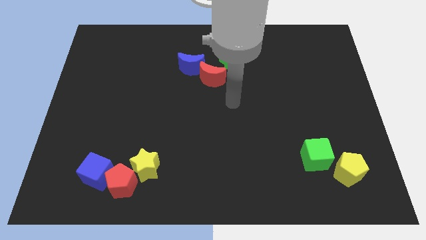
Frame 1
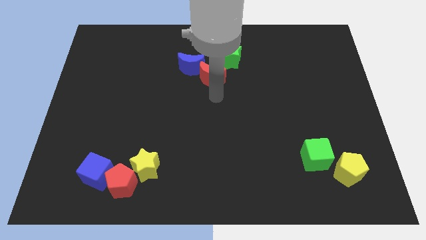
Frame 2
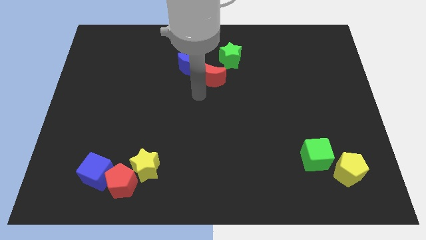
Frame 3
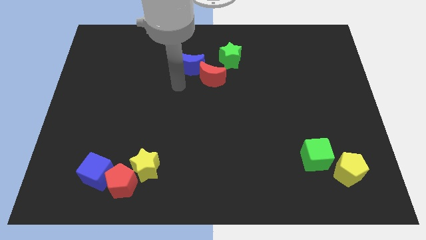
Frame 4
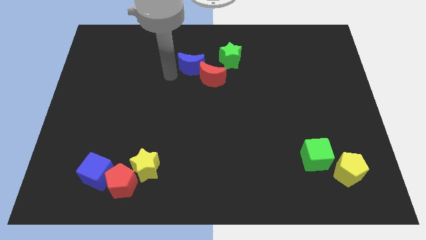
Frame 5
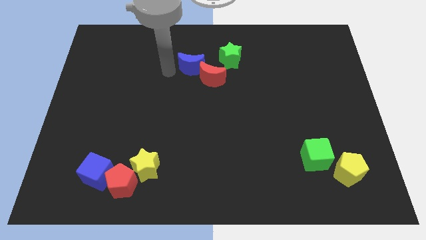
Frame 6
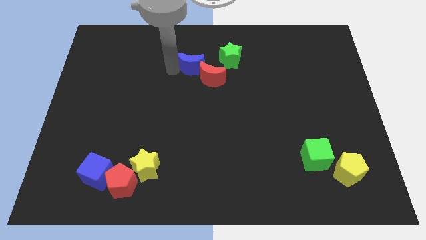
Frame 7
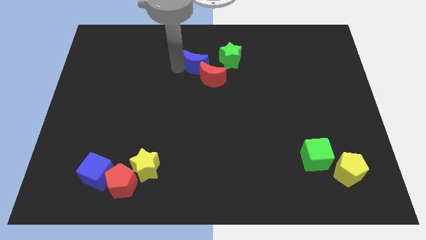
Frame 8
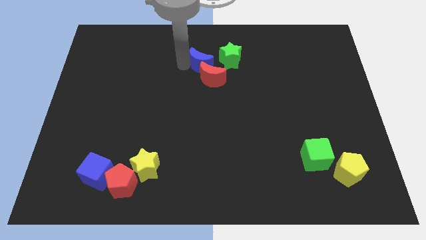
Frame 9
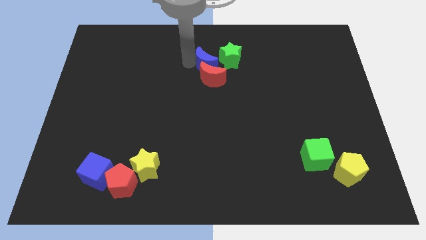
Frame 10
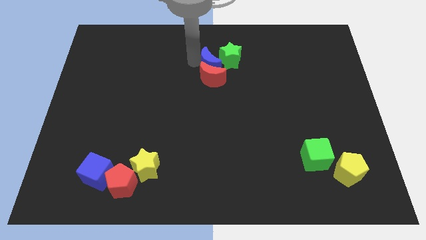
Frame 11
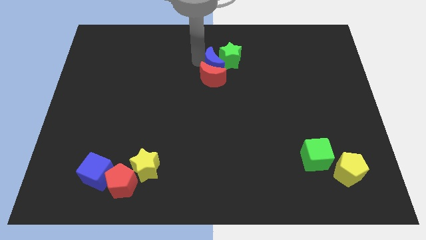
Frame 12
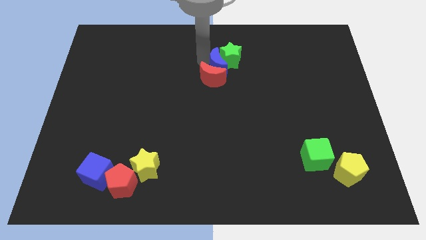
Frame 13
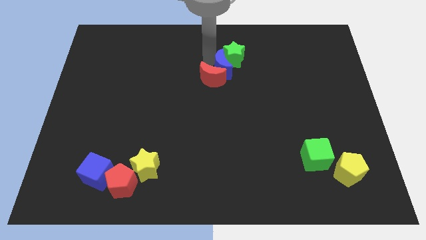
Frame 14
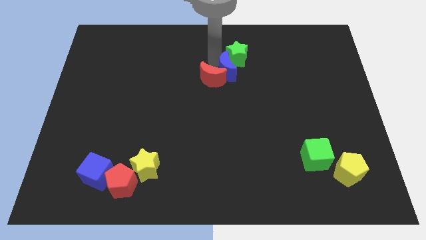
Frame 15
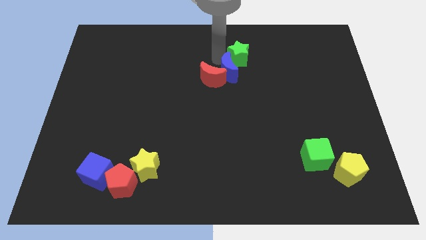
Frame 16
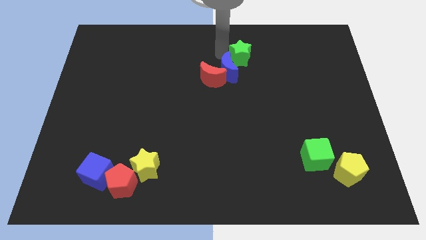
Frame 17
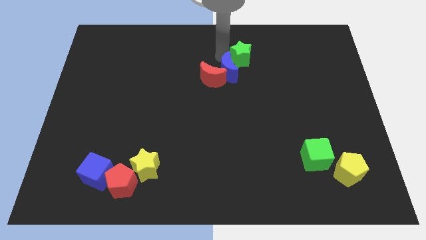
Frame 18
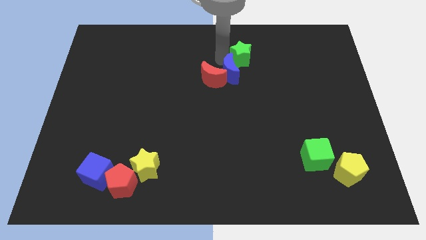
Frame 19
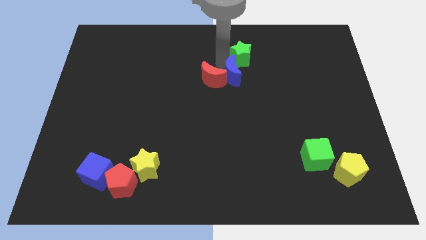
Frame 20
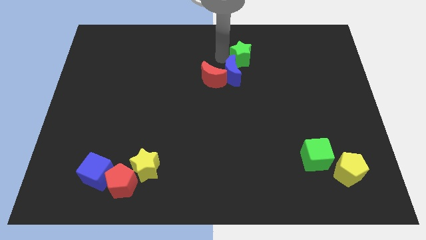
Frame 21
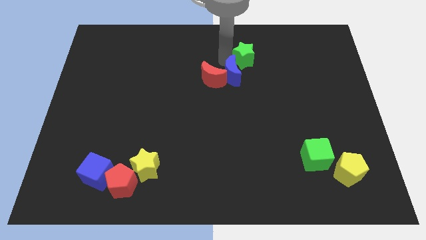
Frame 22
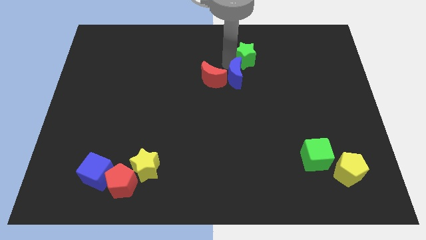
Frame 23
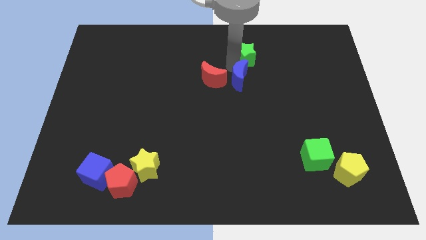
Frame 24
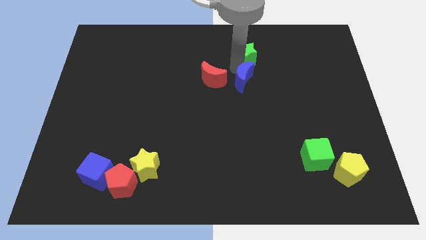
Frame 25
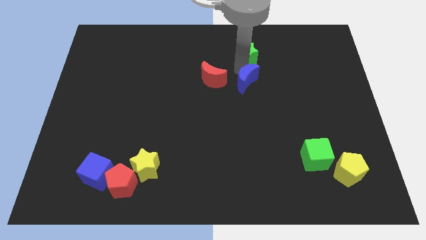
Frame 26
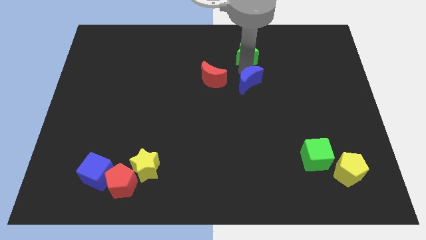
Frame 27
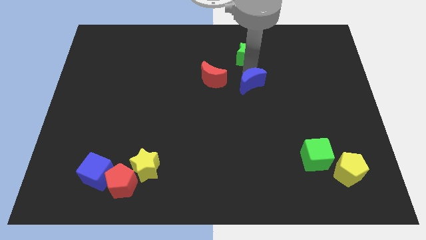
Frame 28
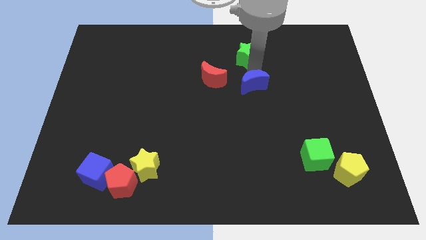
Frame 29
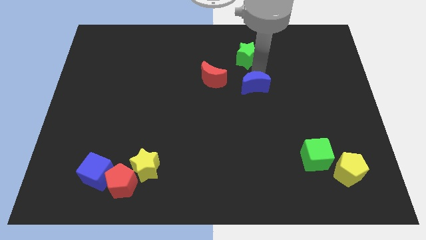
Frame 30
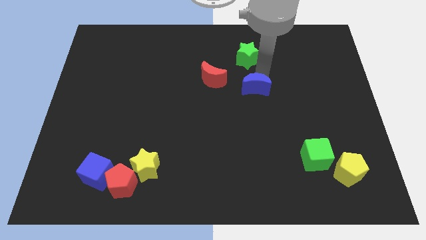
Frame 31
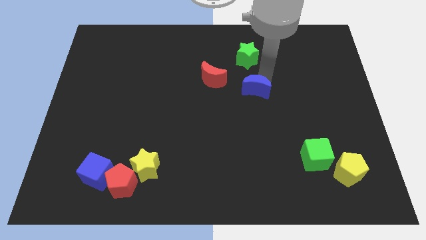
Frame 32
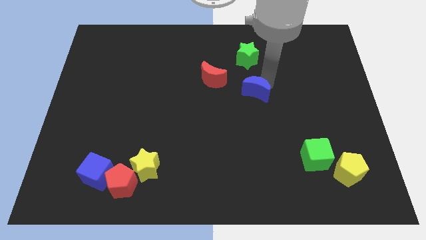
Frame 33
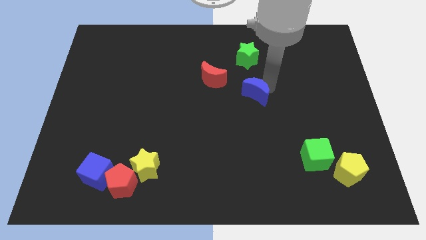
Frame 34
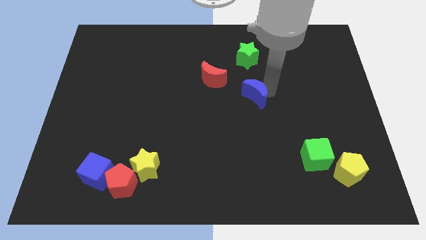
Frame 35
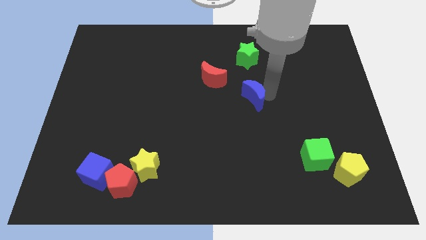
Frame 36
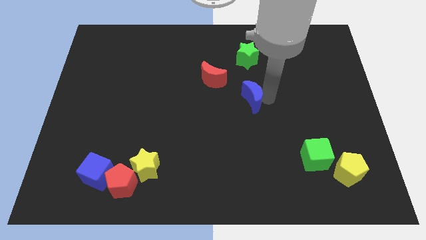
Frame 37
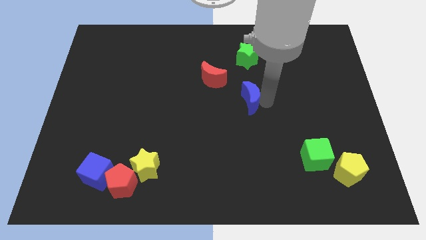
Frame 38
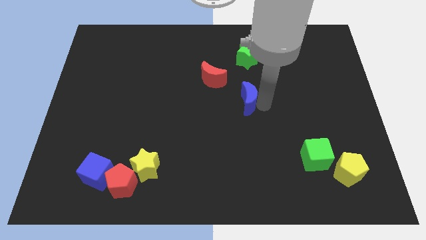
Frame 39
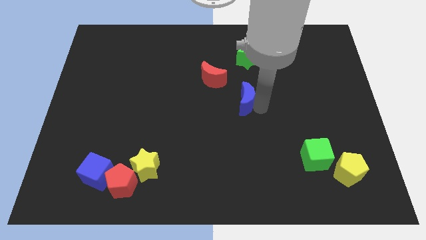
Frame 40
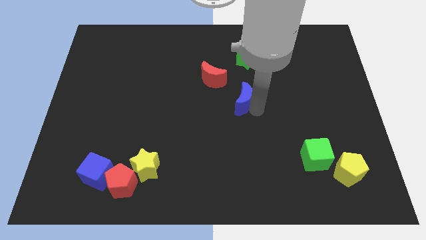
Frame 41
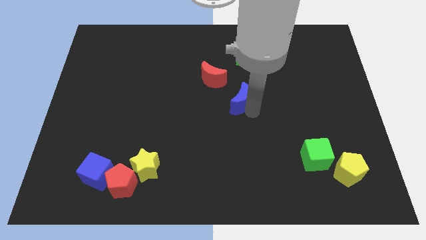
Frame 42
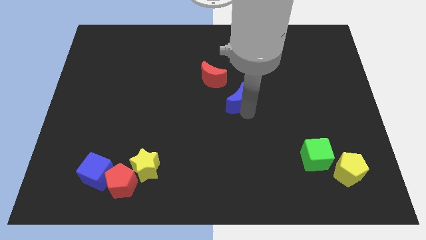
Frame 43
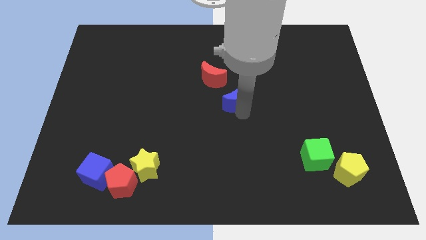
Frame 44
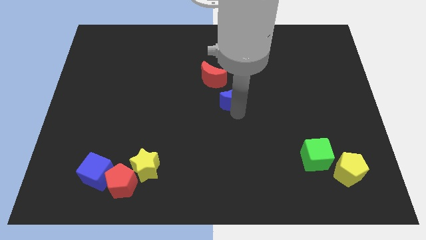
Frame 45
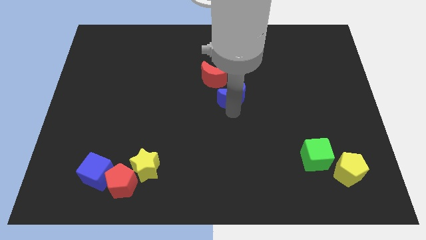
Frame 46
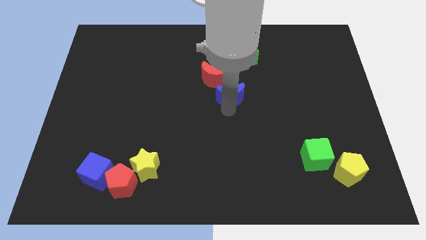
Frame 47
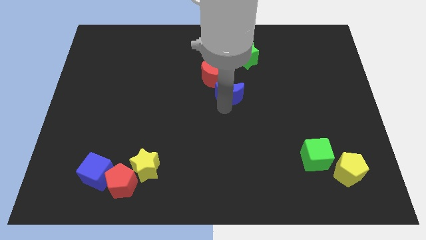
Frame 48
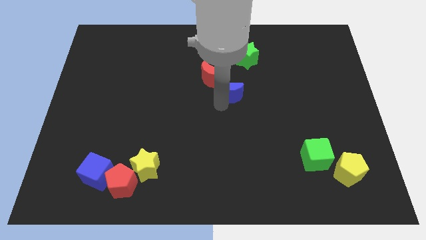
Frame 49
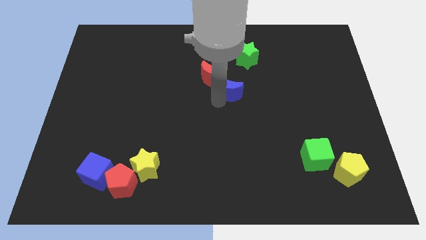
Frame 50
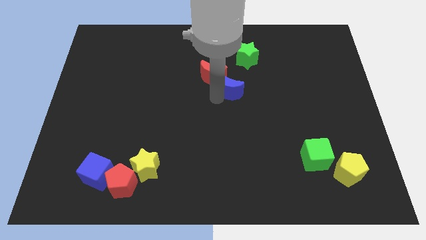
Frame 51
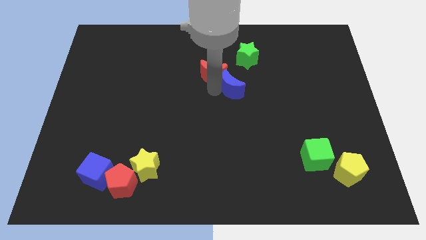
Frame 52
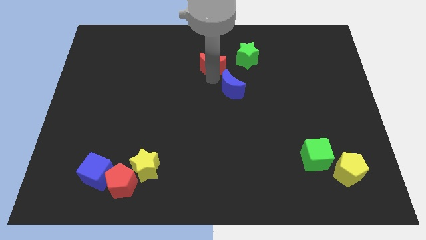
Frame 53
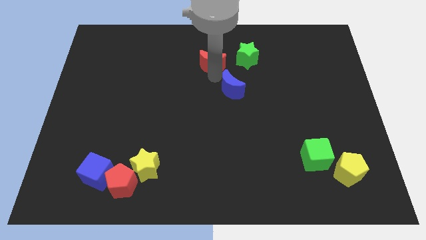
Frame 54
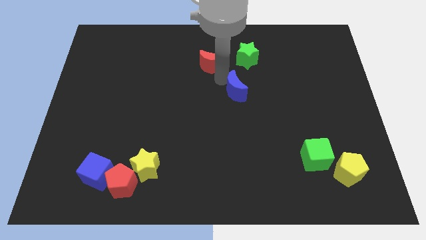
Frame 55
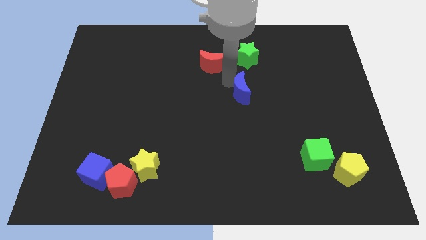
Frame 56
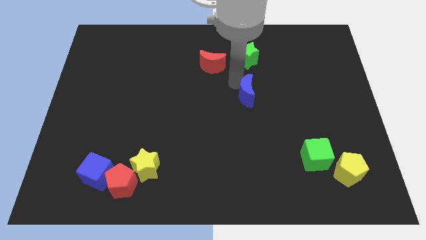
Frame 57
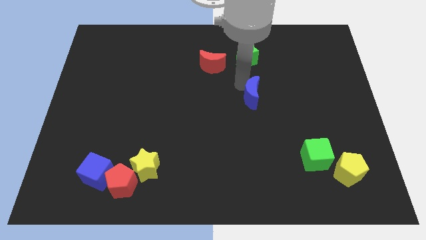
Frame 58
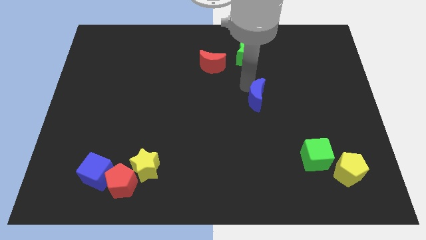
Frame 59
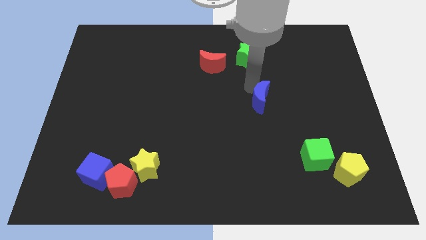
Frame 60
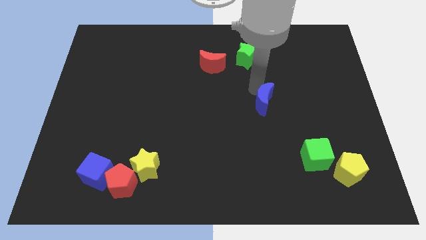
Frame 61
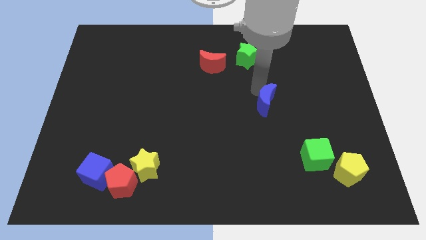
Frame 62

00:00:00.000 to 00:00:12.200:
slide the blue moon downwards and to the right diagonally

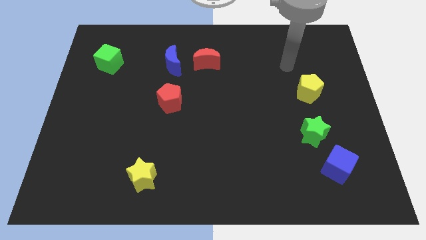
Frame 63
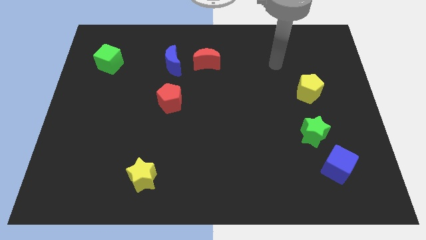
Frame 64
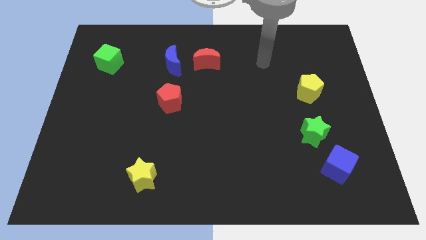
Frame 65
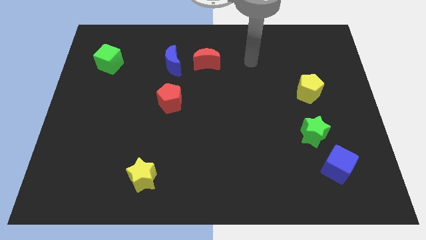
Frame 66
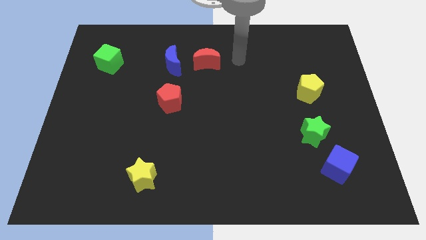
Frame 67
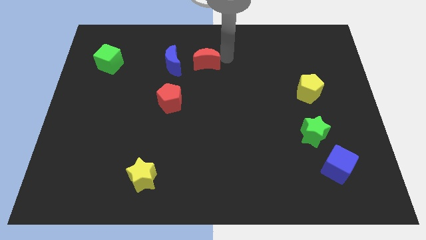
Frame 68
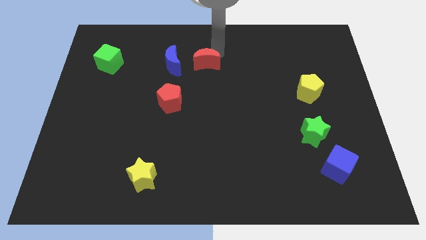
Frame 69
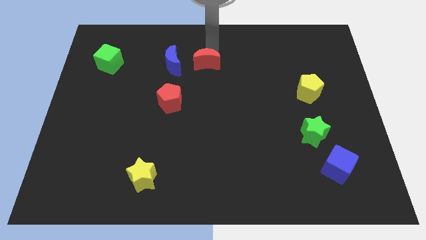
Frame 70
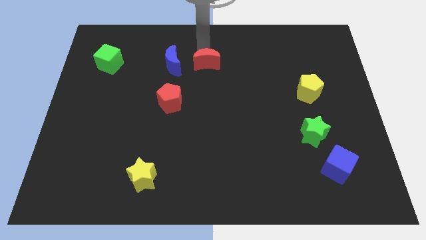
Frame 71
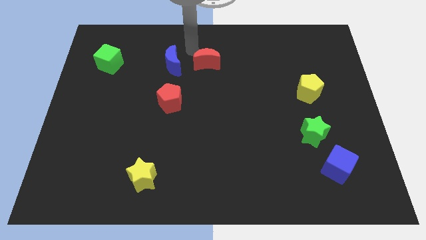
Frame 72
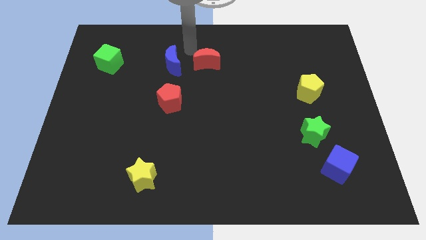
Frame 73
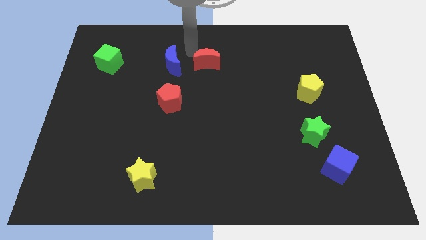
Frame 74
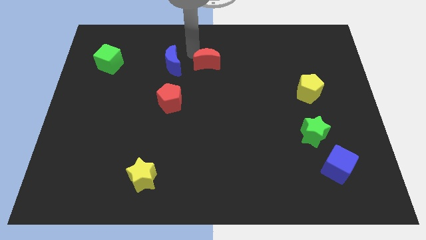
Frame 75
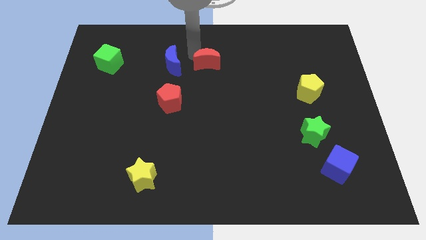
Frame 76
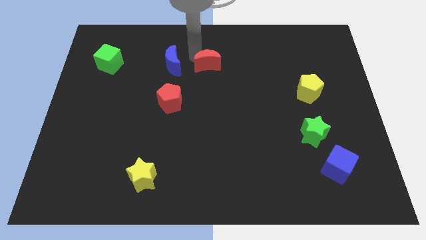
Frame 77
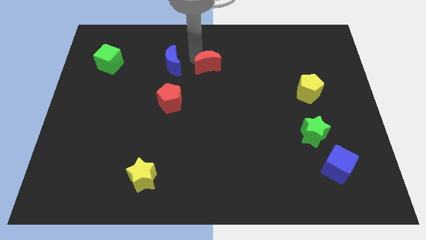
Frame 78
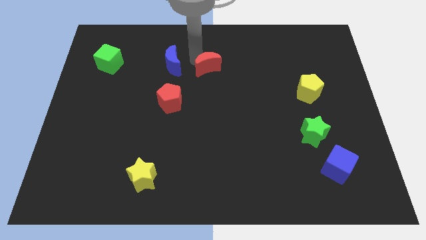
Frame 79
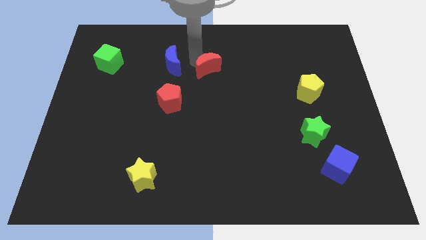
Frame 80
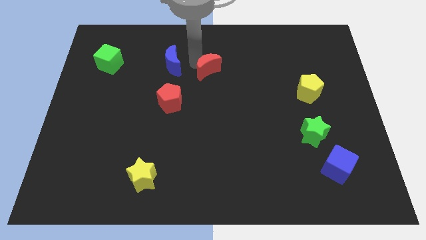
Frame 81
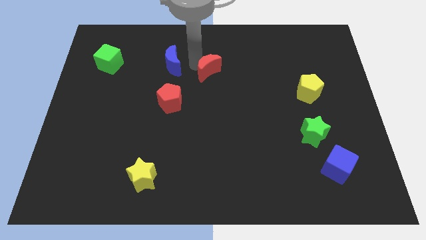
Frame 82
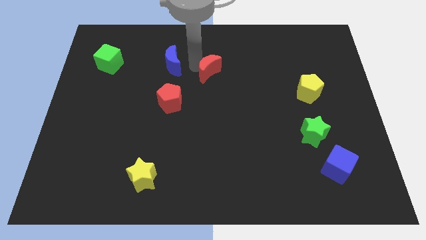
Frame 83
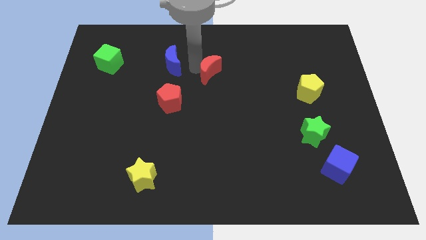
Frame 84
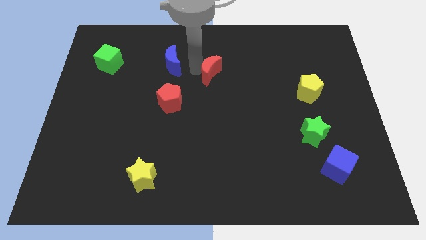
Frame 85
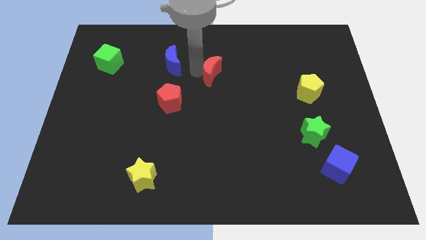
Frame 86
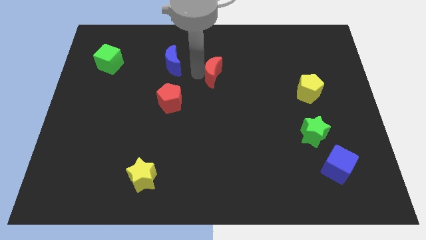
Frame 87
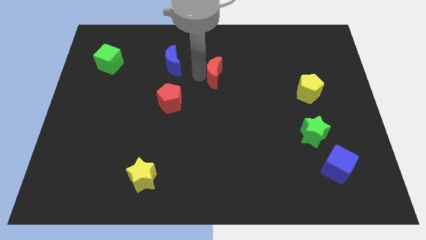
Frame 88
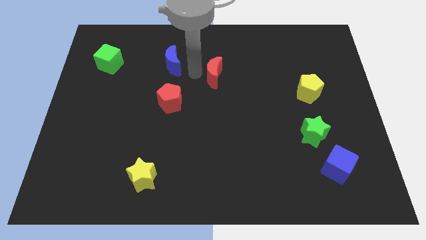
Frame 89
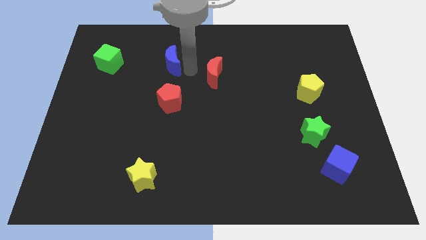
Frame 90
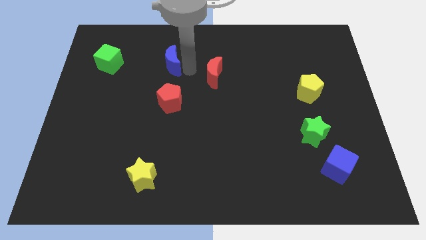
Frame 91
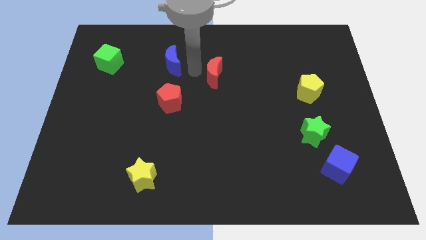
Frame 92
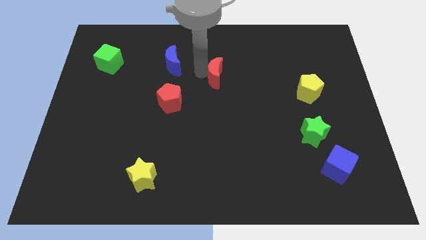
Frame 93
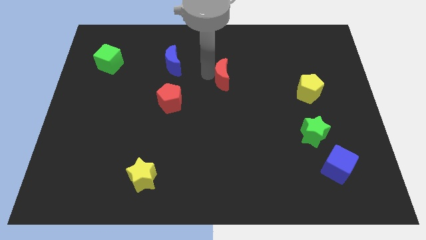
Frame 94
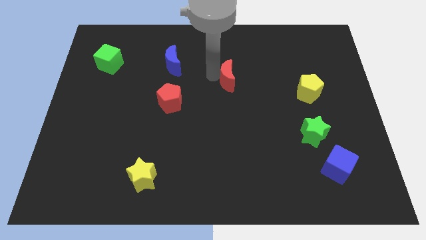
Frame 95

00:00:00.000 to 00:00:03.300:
slightly slide the red moon diagonally downwards and to the right
